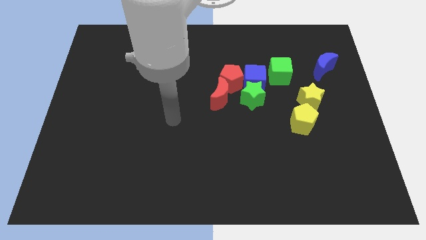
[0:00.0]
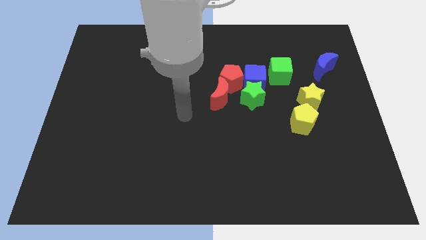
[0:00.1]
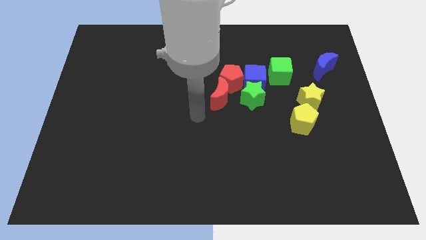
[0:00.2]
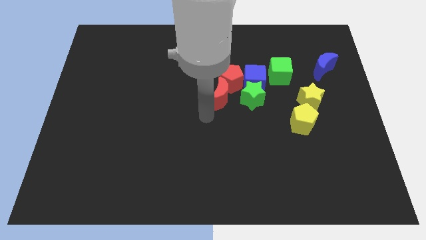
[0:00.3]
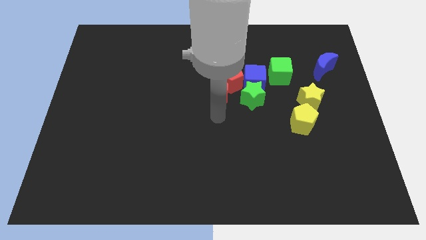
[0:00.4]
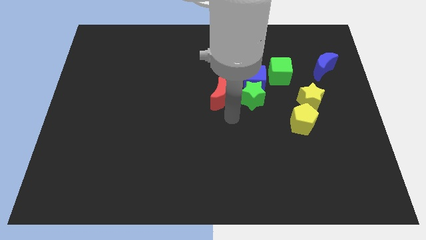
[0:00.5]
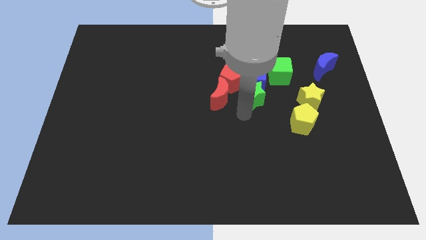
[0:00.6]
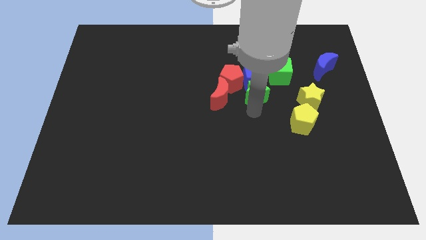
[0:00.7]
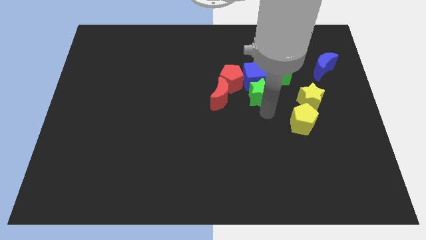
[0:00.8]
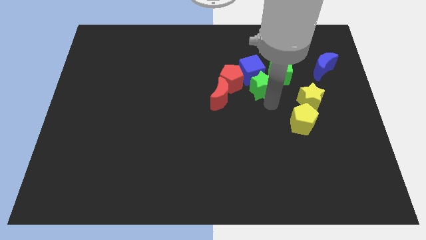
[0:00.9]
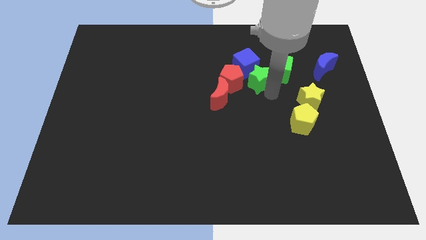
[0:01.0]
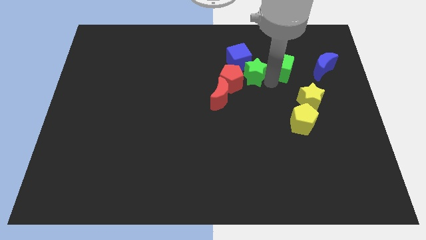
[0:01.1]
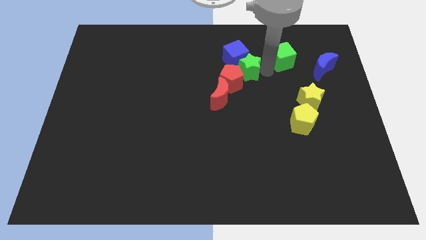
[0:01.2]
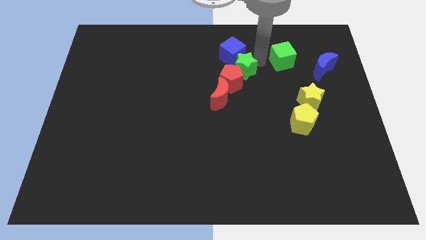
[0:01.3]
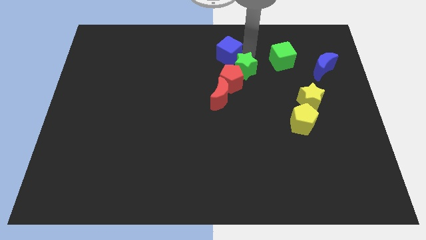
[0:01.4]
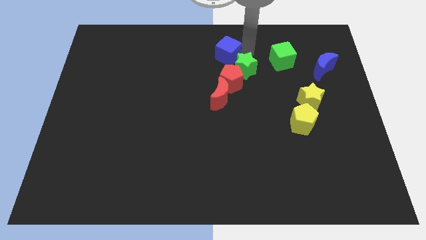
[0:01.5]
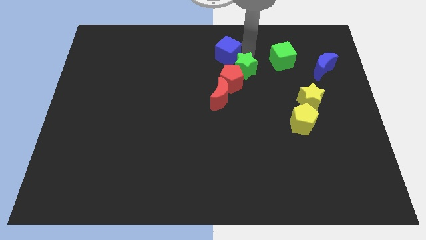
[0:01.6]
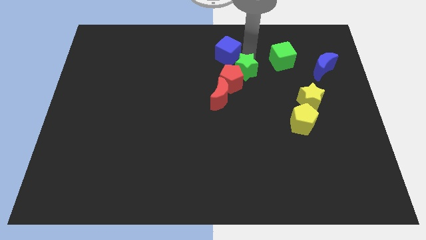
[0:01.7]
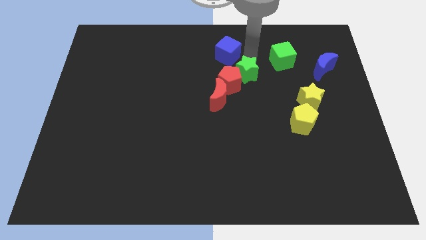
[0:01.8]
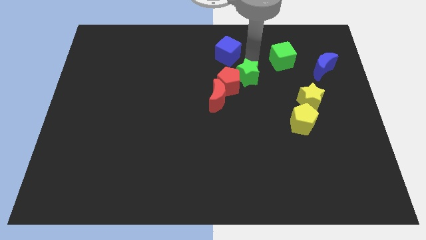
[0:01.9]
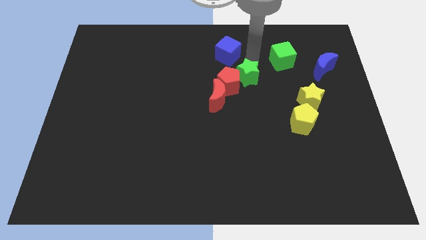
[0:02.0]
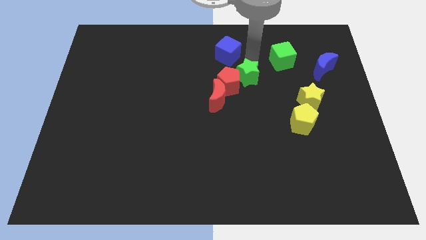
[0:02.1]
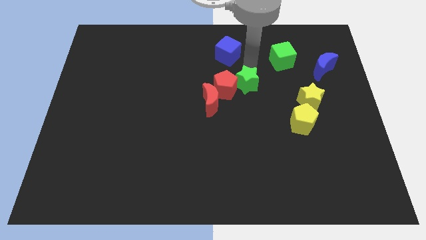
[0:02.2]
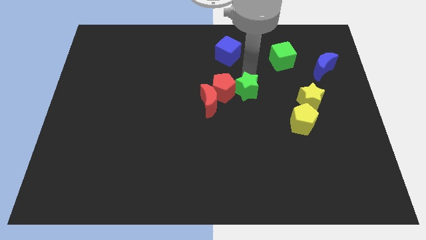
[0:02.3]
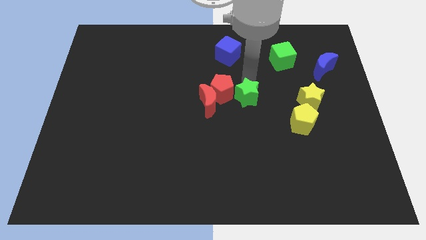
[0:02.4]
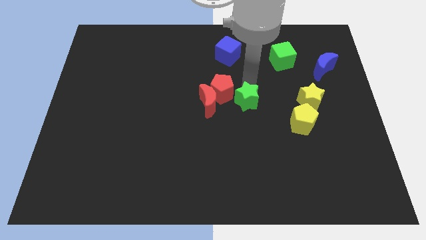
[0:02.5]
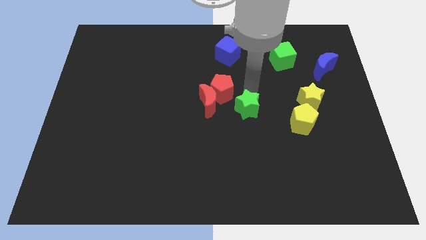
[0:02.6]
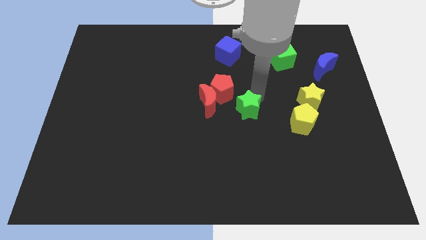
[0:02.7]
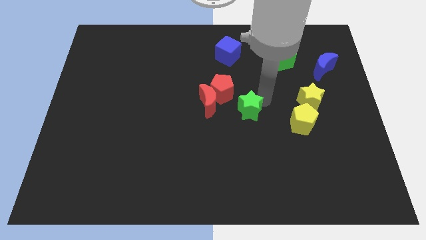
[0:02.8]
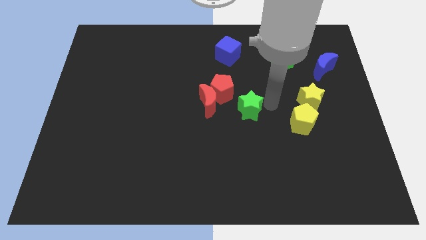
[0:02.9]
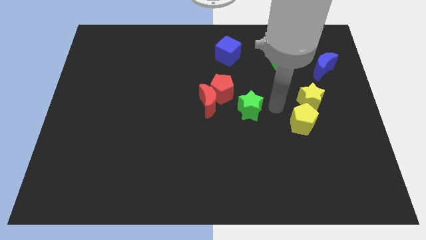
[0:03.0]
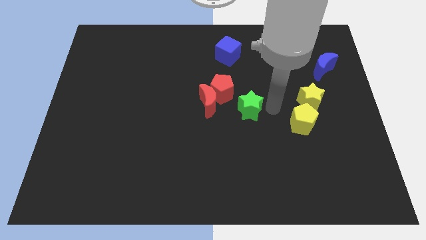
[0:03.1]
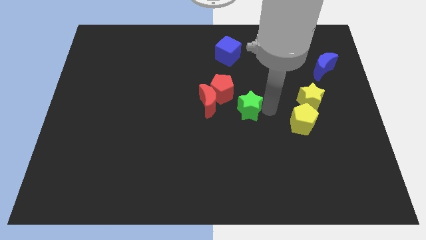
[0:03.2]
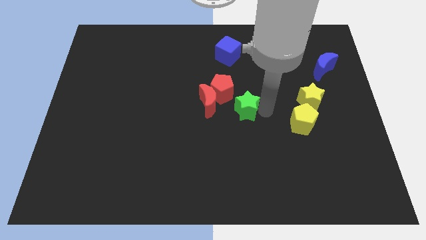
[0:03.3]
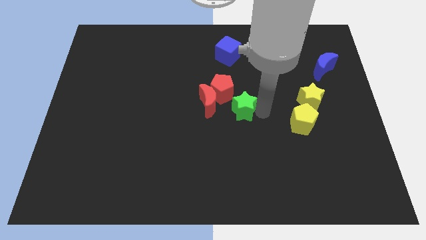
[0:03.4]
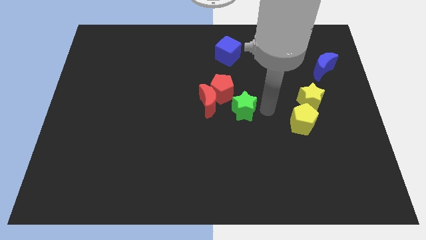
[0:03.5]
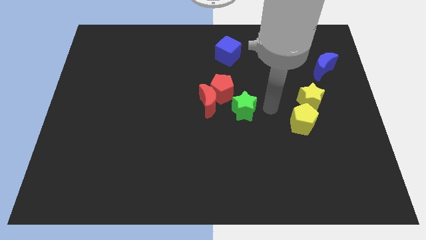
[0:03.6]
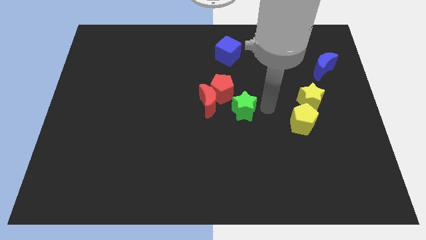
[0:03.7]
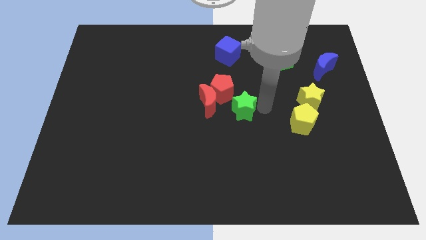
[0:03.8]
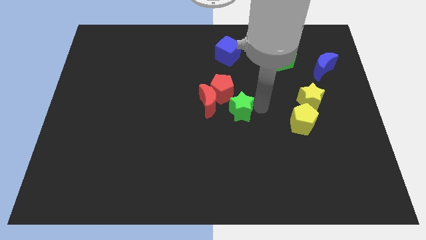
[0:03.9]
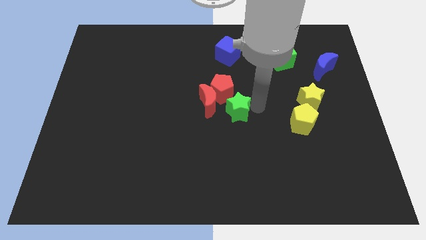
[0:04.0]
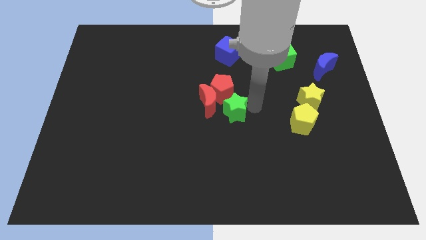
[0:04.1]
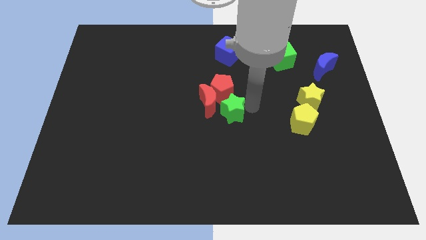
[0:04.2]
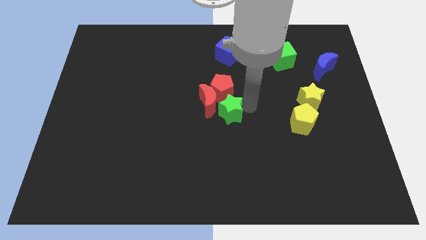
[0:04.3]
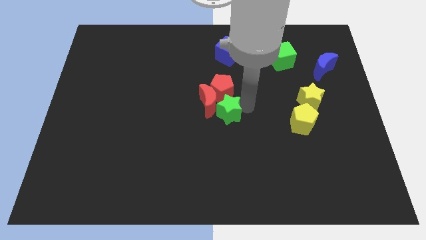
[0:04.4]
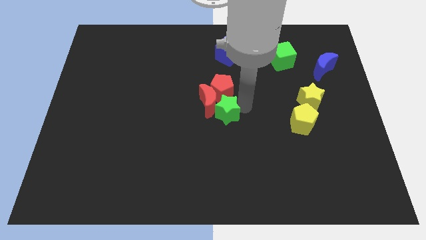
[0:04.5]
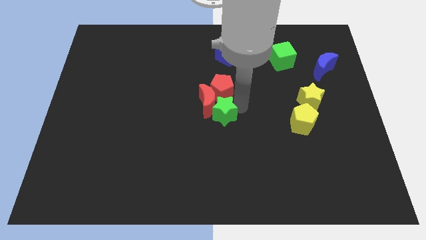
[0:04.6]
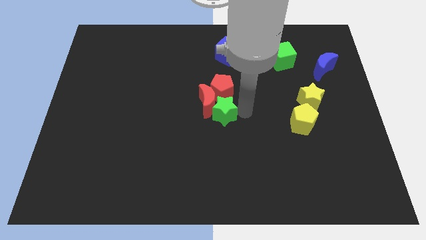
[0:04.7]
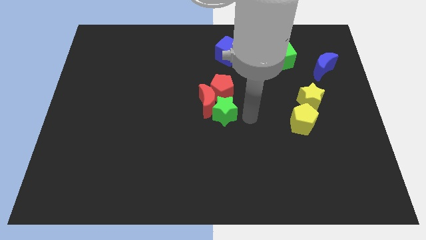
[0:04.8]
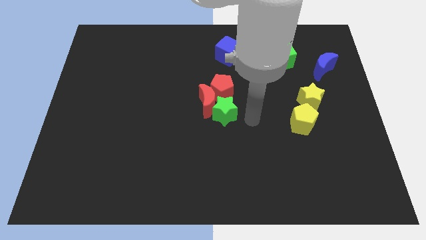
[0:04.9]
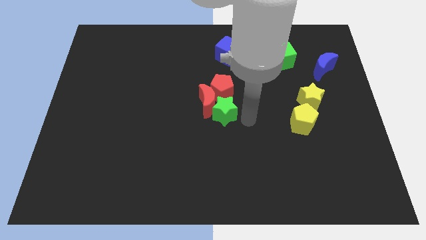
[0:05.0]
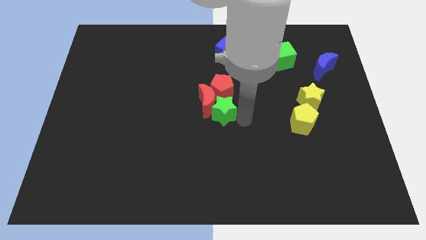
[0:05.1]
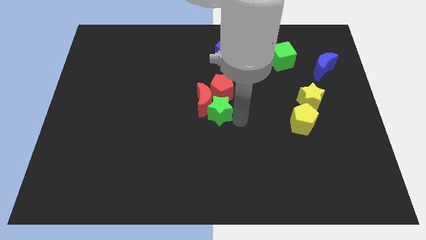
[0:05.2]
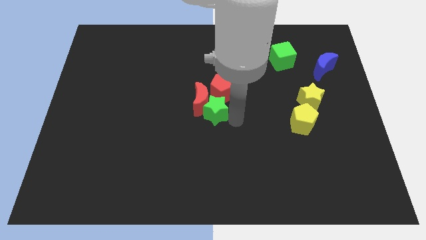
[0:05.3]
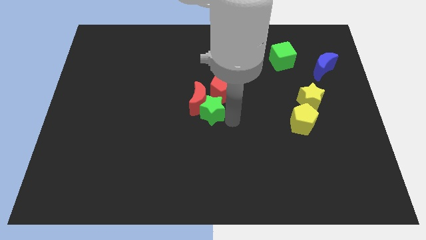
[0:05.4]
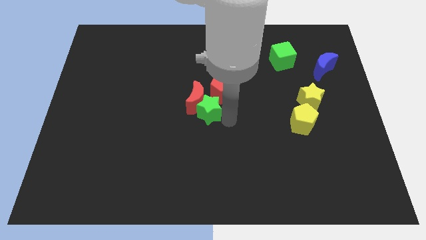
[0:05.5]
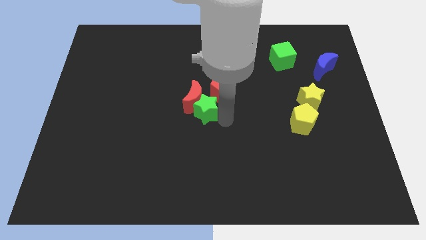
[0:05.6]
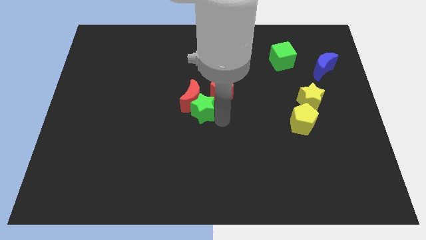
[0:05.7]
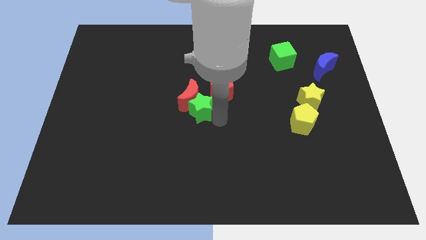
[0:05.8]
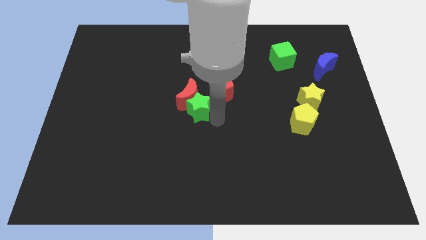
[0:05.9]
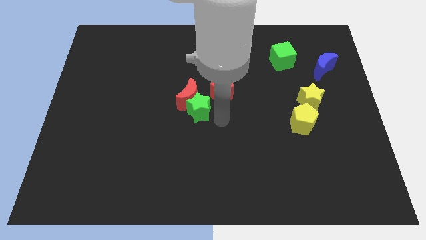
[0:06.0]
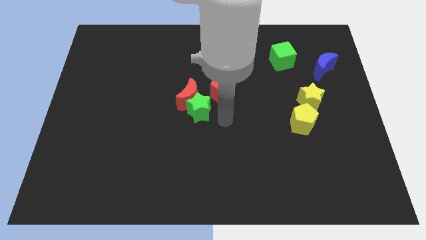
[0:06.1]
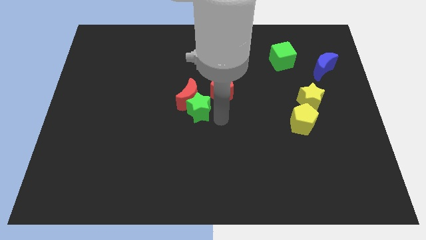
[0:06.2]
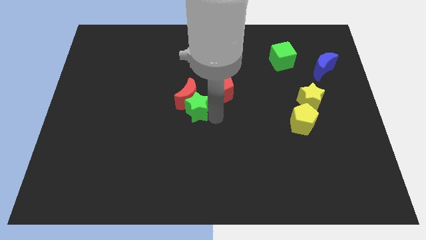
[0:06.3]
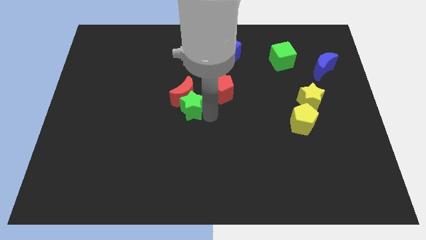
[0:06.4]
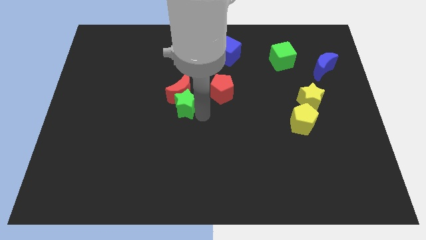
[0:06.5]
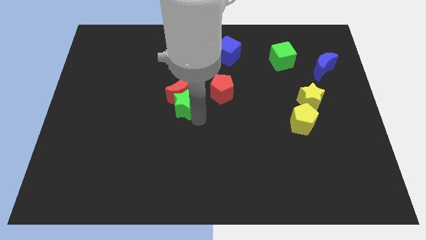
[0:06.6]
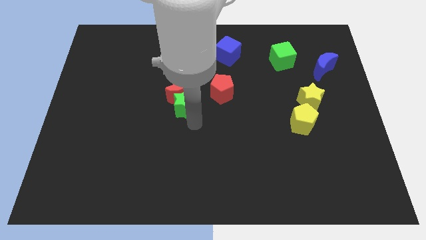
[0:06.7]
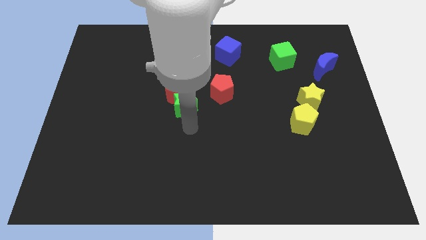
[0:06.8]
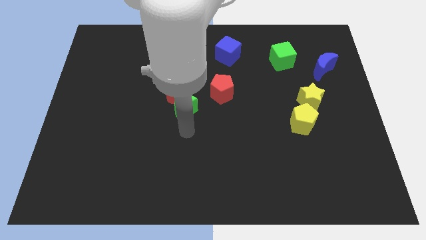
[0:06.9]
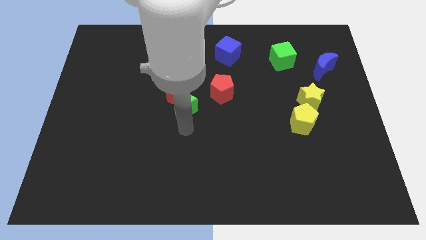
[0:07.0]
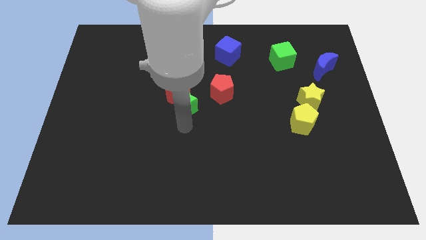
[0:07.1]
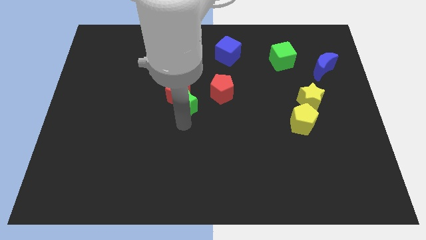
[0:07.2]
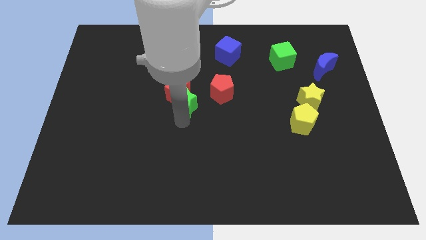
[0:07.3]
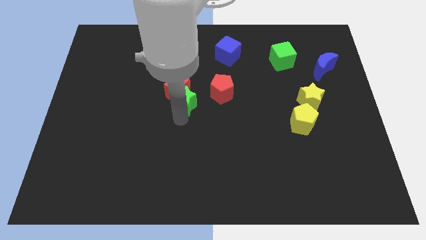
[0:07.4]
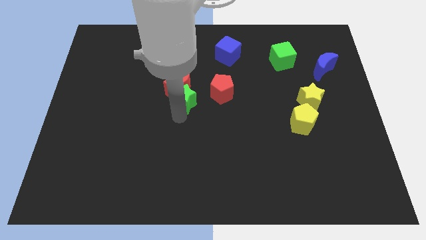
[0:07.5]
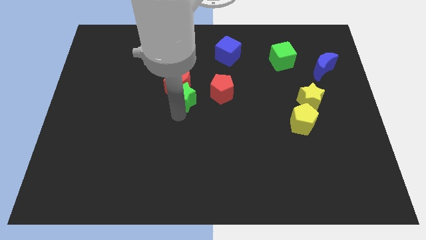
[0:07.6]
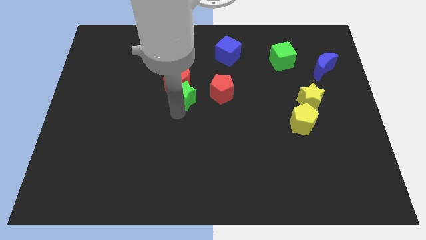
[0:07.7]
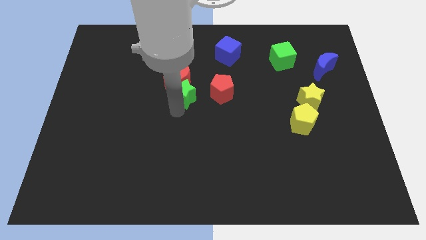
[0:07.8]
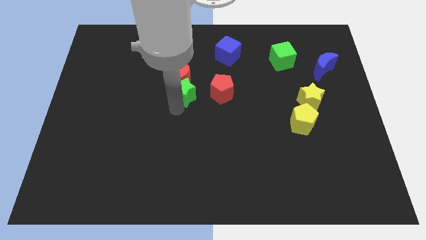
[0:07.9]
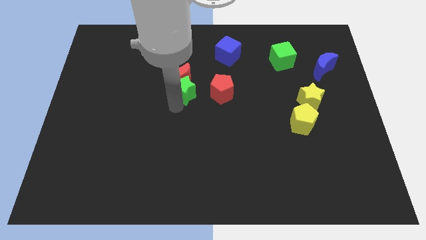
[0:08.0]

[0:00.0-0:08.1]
slightly push the green star diagonally up and left

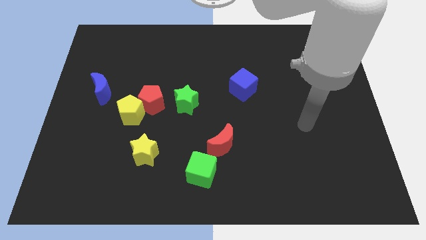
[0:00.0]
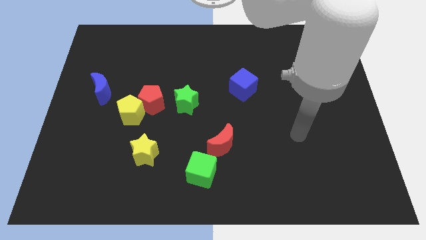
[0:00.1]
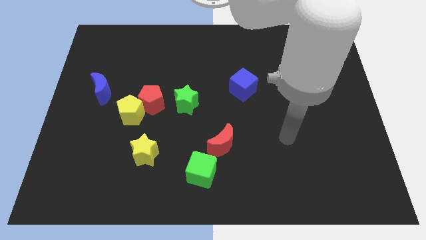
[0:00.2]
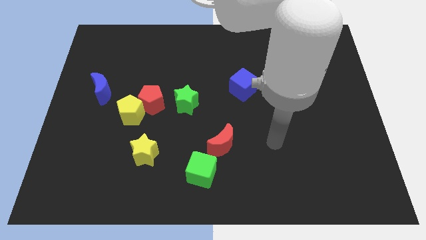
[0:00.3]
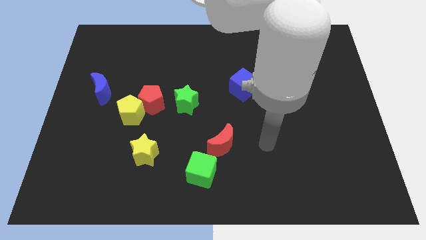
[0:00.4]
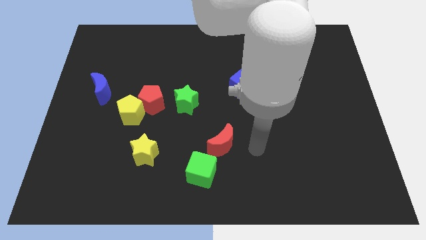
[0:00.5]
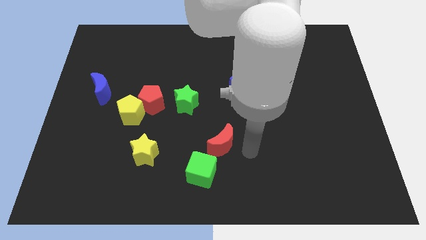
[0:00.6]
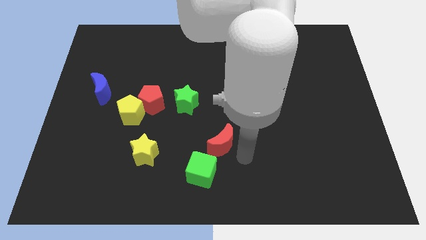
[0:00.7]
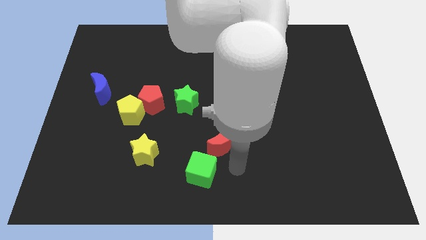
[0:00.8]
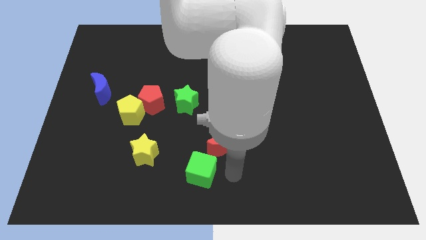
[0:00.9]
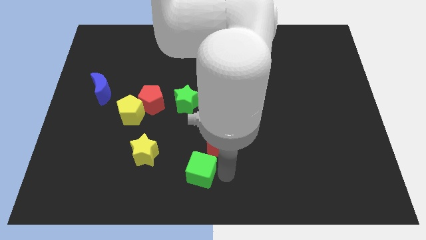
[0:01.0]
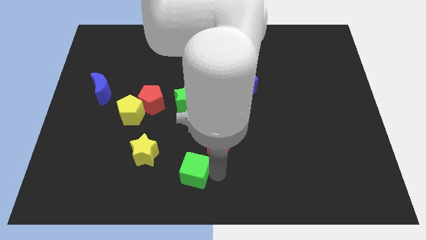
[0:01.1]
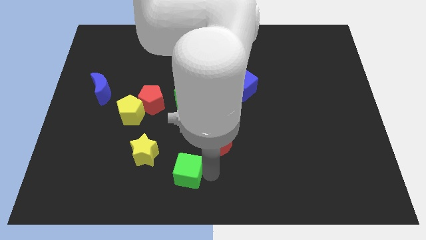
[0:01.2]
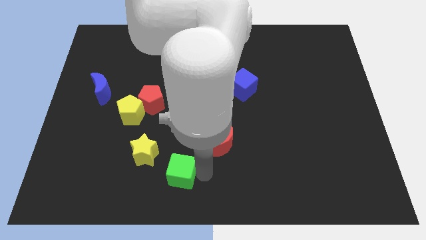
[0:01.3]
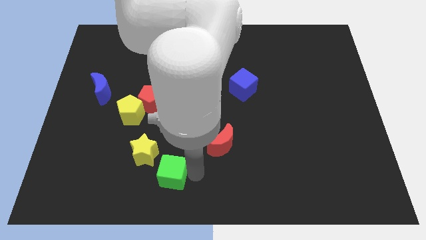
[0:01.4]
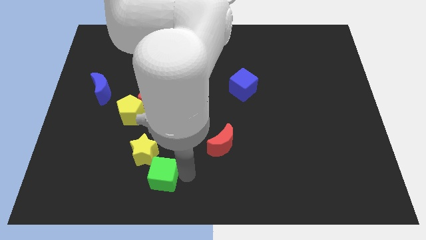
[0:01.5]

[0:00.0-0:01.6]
move the green cube to the left a bit
